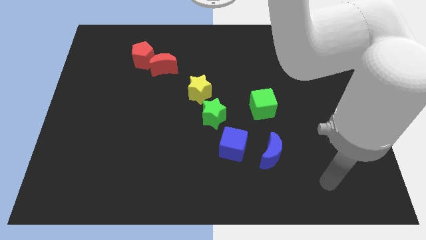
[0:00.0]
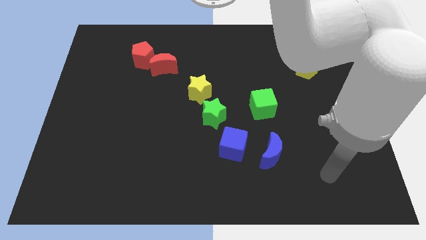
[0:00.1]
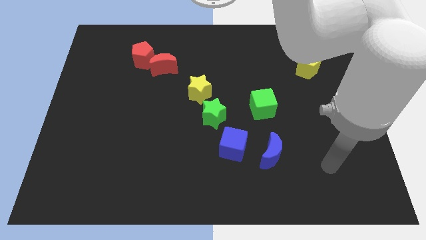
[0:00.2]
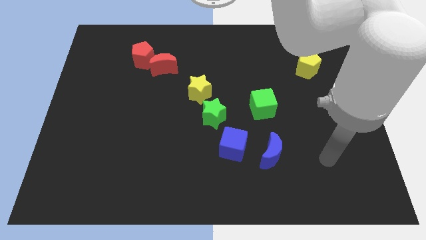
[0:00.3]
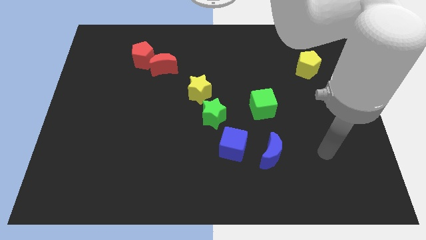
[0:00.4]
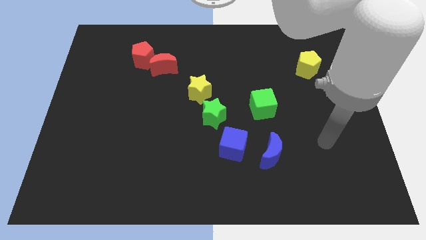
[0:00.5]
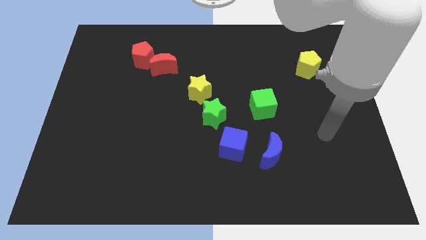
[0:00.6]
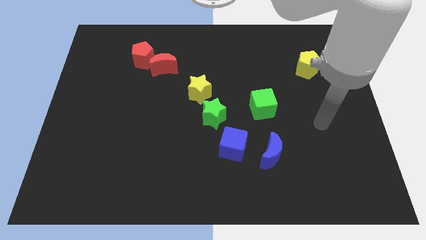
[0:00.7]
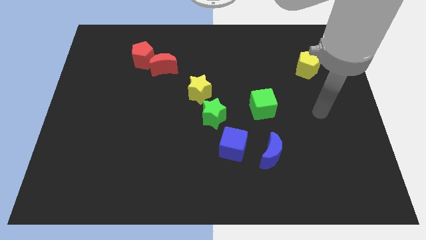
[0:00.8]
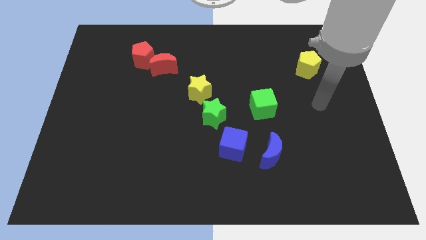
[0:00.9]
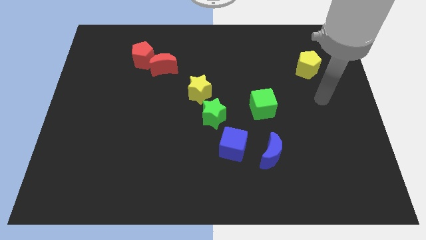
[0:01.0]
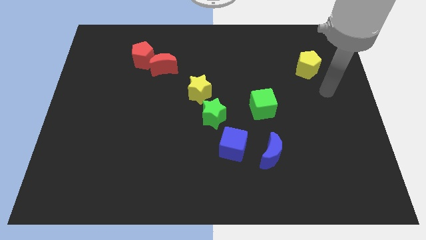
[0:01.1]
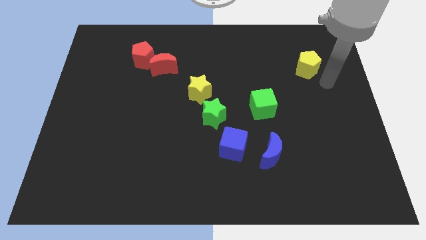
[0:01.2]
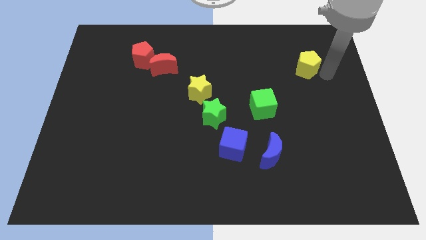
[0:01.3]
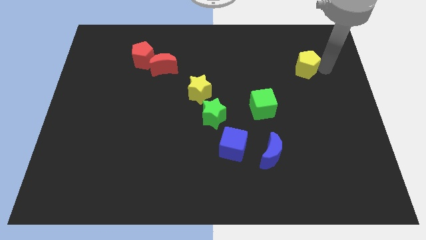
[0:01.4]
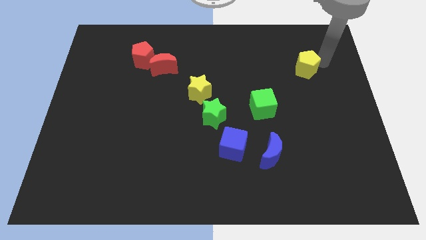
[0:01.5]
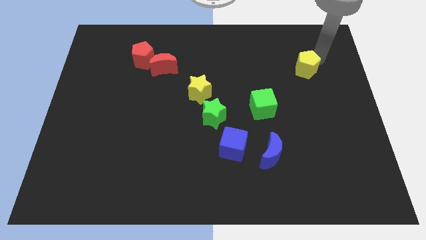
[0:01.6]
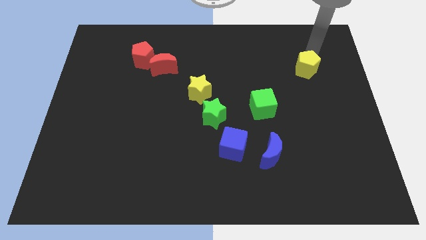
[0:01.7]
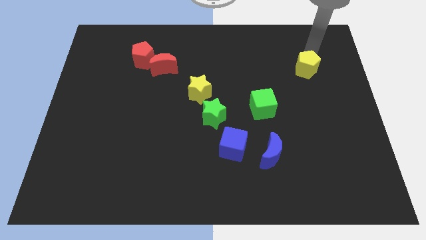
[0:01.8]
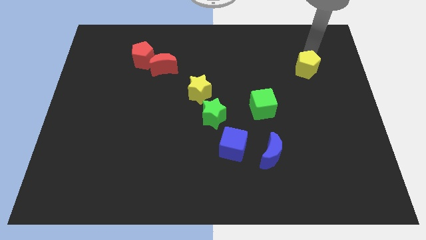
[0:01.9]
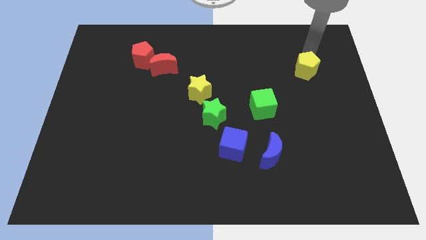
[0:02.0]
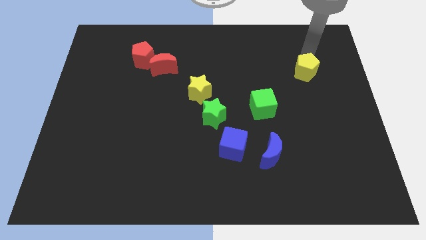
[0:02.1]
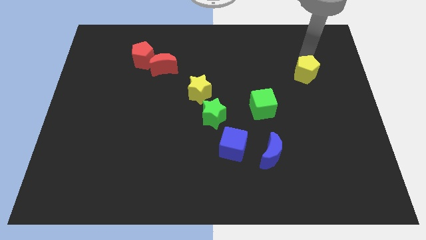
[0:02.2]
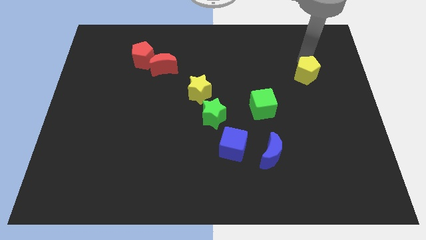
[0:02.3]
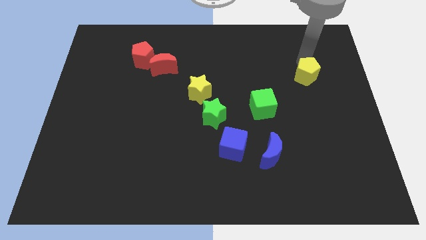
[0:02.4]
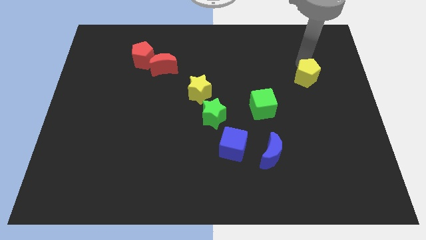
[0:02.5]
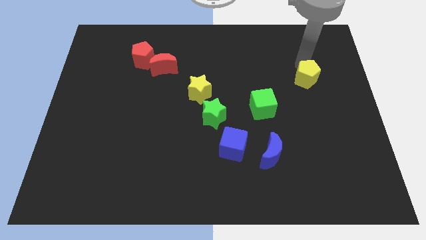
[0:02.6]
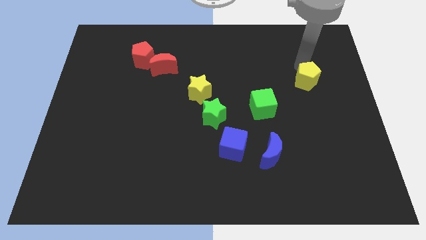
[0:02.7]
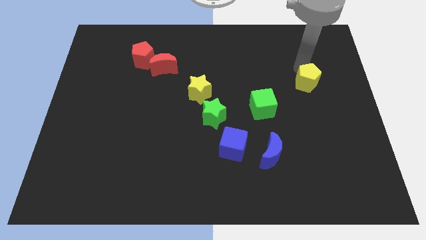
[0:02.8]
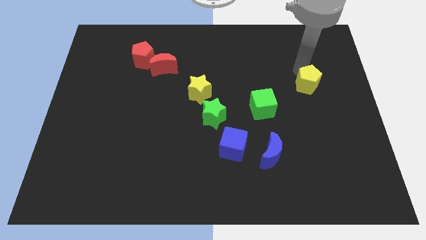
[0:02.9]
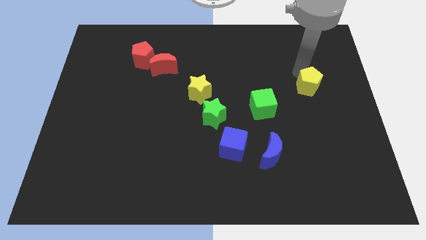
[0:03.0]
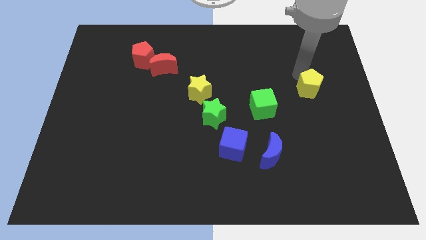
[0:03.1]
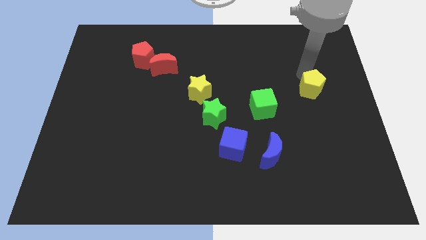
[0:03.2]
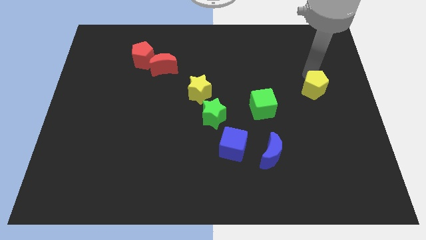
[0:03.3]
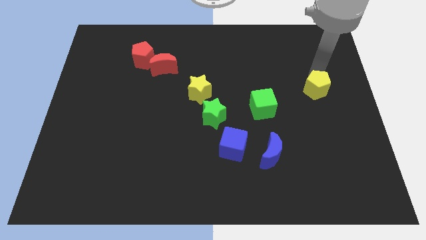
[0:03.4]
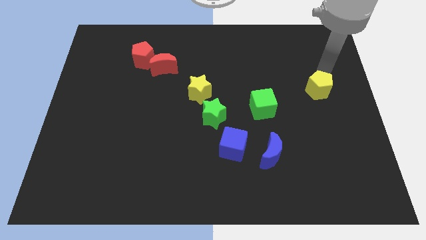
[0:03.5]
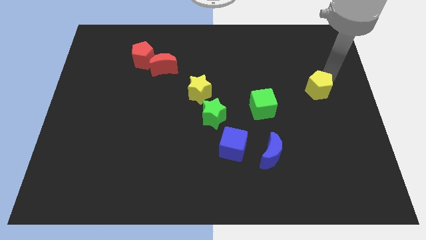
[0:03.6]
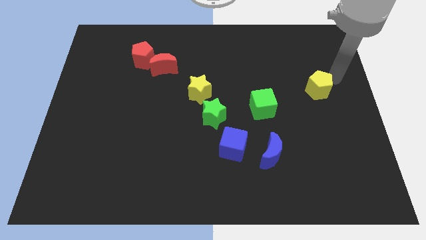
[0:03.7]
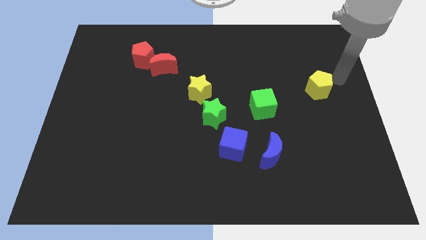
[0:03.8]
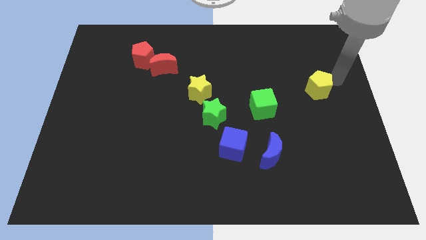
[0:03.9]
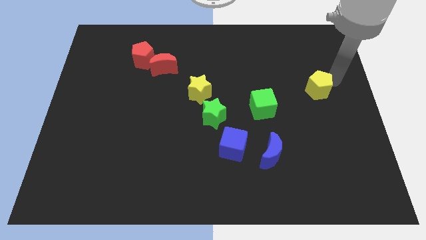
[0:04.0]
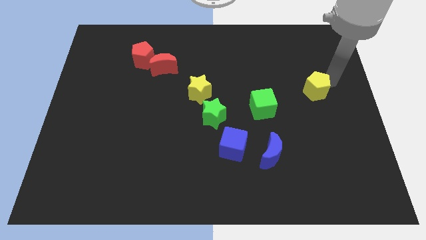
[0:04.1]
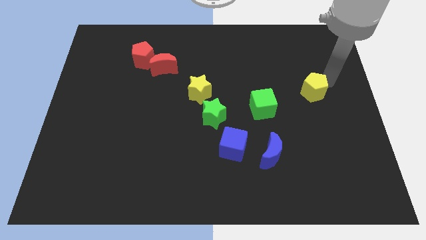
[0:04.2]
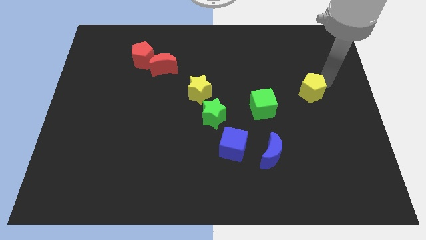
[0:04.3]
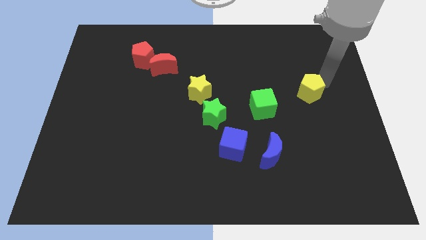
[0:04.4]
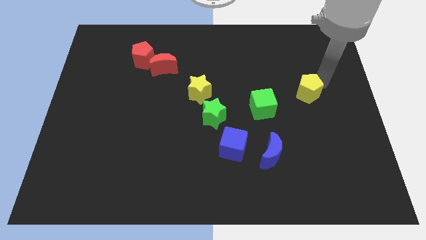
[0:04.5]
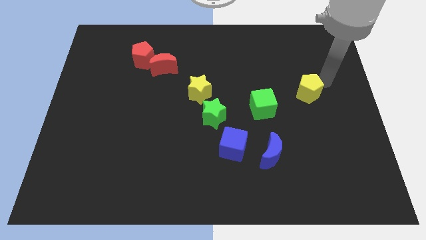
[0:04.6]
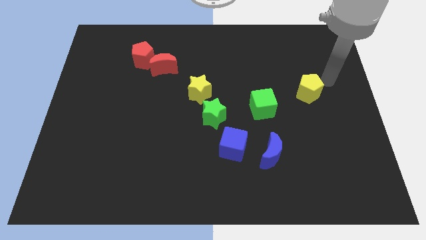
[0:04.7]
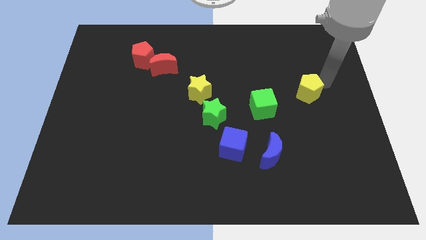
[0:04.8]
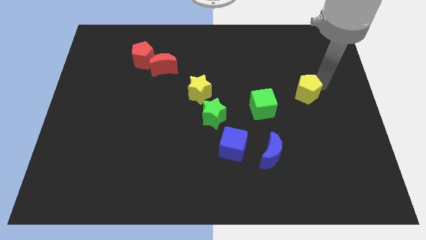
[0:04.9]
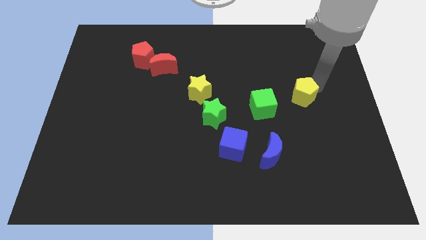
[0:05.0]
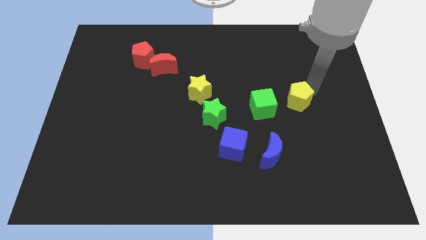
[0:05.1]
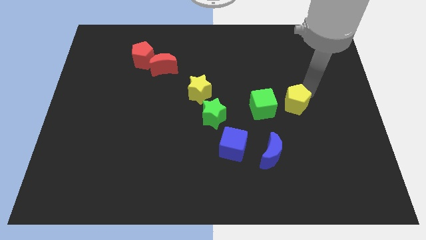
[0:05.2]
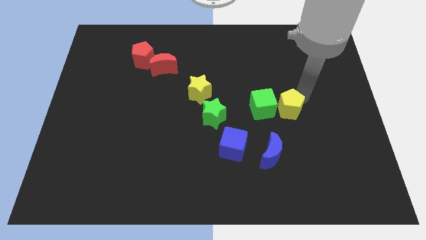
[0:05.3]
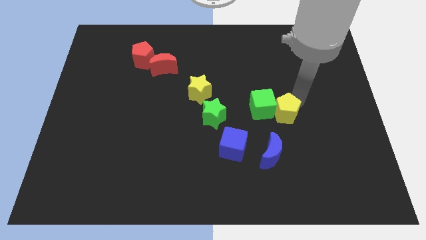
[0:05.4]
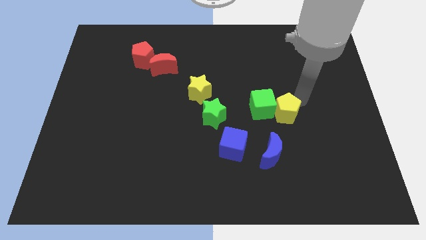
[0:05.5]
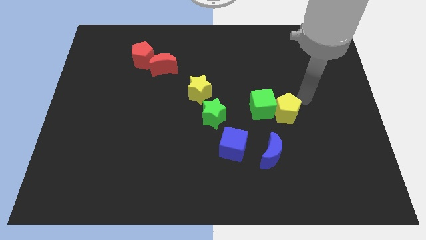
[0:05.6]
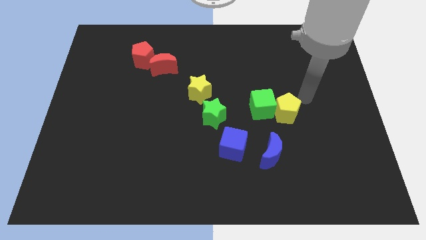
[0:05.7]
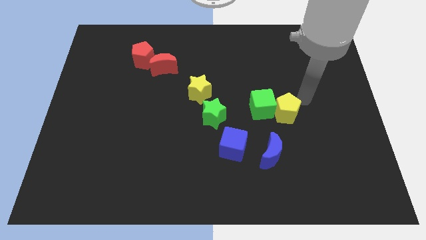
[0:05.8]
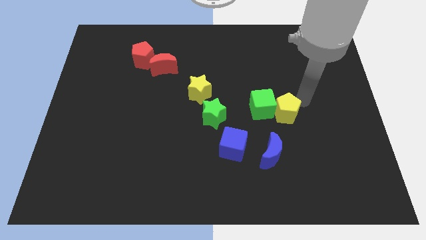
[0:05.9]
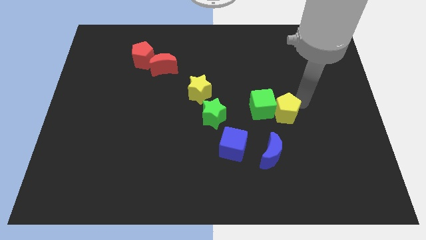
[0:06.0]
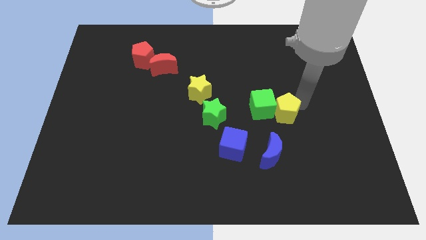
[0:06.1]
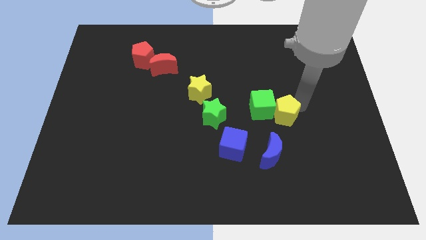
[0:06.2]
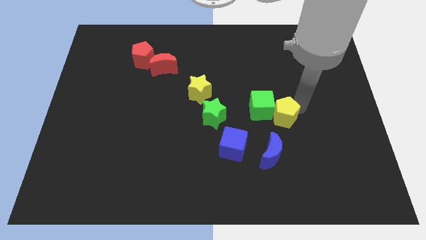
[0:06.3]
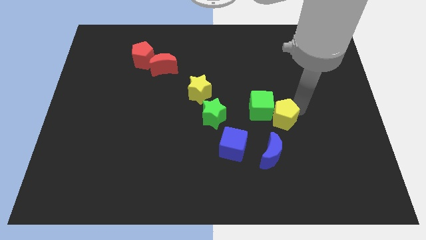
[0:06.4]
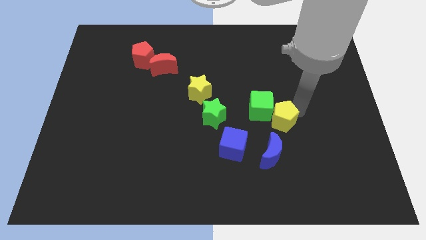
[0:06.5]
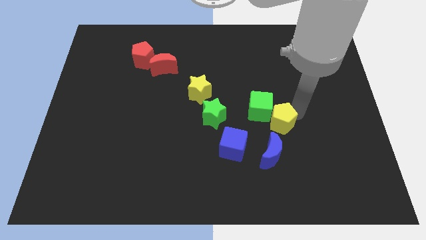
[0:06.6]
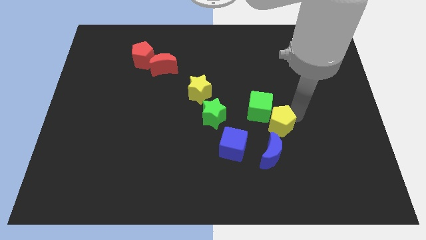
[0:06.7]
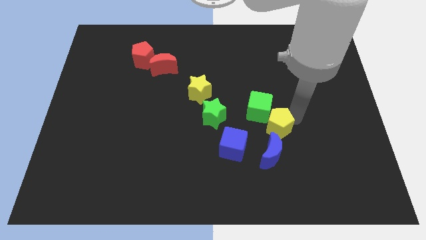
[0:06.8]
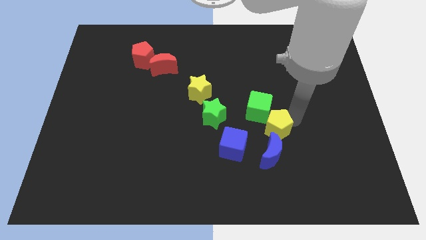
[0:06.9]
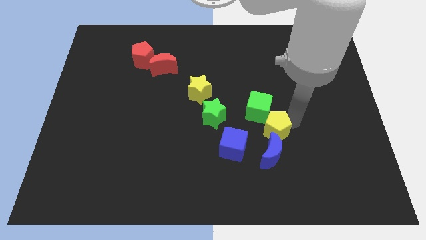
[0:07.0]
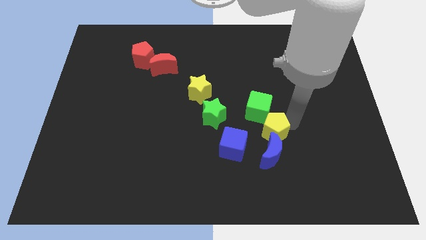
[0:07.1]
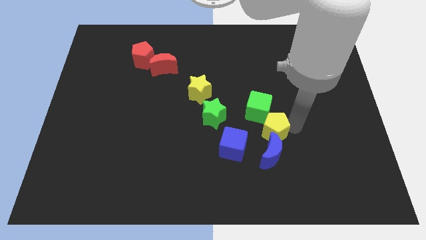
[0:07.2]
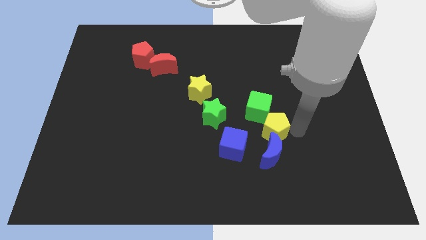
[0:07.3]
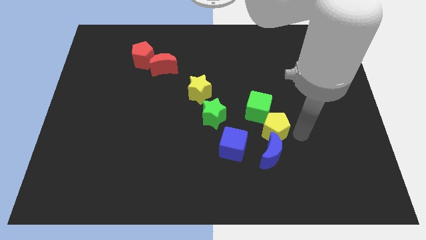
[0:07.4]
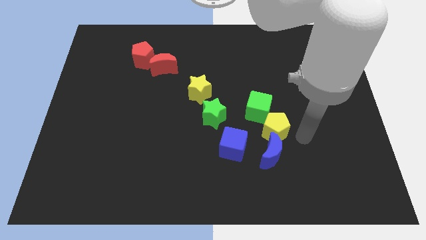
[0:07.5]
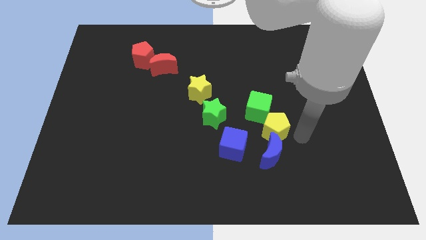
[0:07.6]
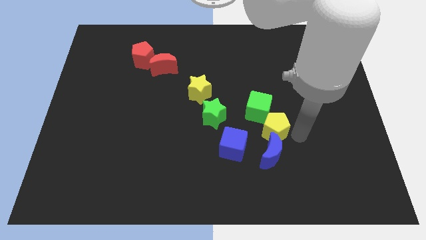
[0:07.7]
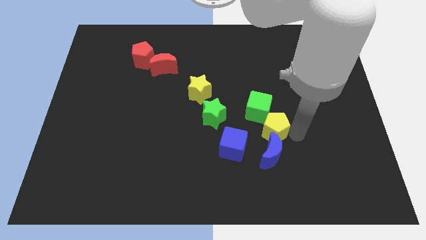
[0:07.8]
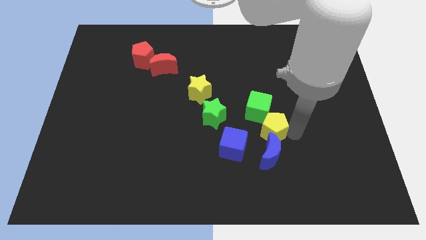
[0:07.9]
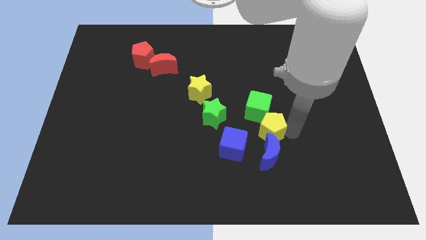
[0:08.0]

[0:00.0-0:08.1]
push the yellow pentagon to the top left side of the blue moon
